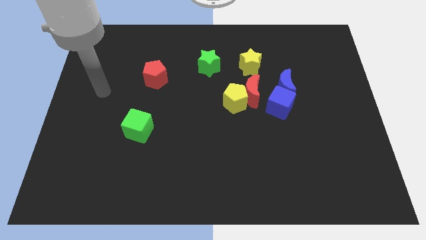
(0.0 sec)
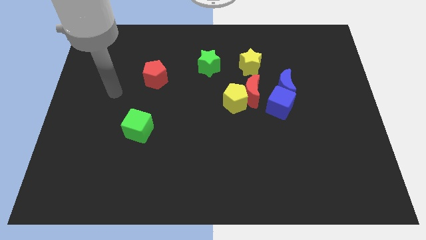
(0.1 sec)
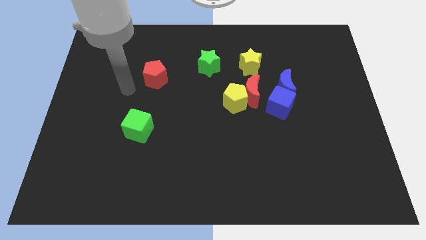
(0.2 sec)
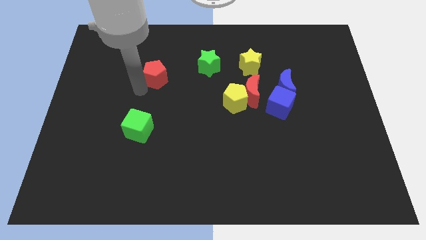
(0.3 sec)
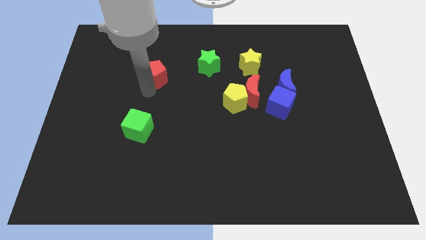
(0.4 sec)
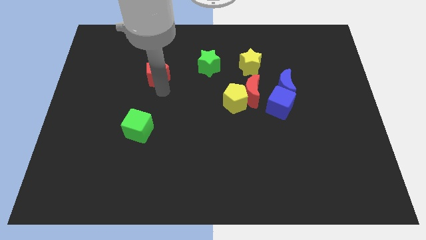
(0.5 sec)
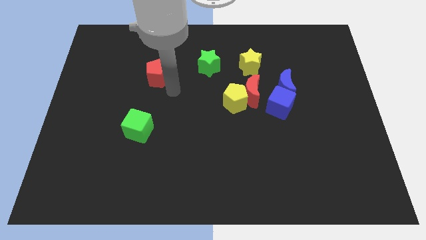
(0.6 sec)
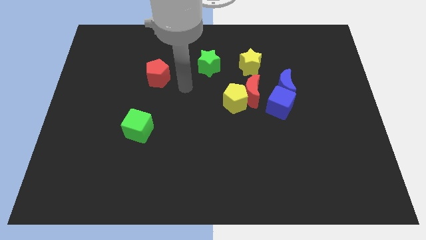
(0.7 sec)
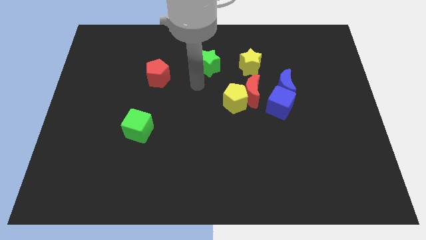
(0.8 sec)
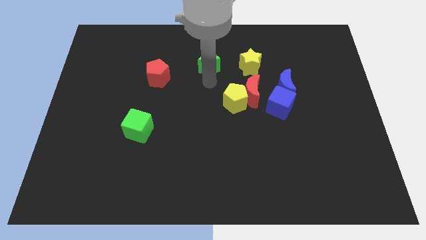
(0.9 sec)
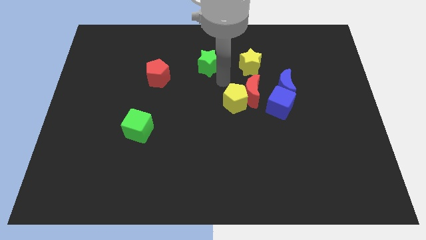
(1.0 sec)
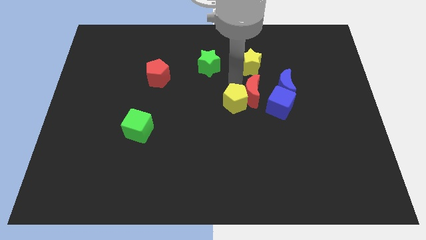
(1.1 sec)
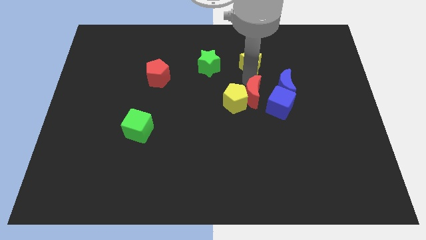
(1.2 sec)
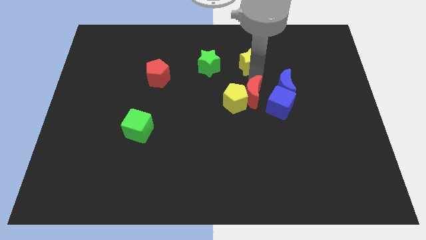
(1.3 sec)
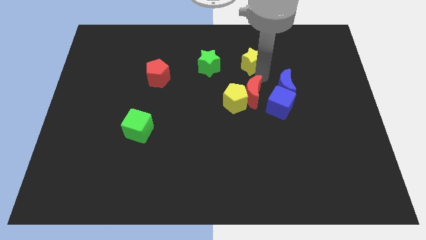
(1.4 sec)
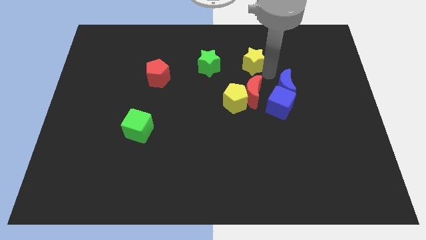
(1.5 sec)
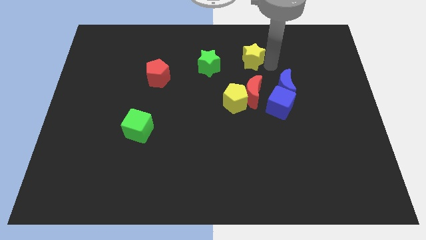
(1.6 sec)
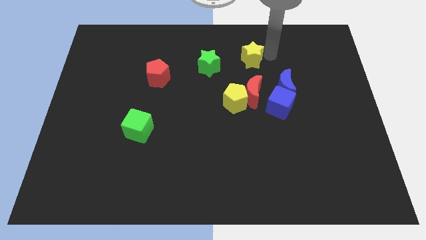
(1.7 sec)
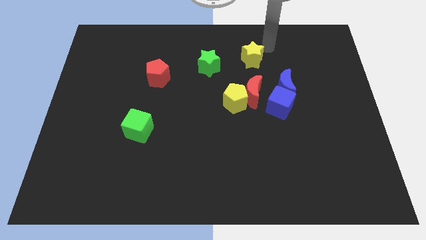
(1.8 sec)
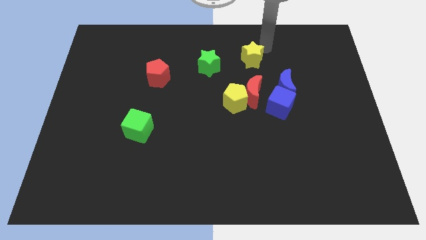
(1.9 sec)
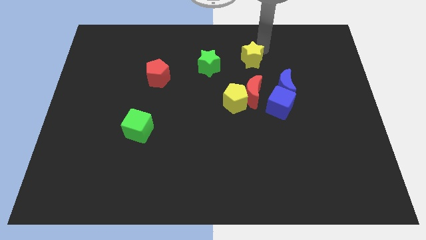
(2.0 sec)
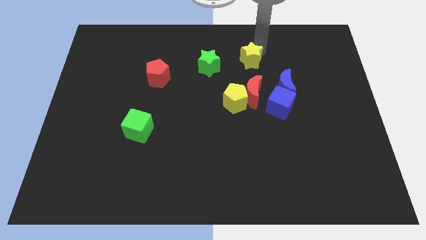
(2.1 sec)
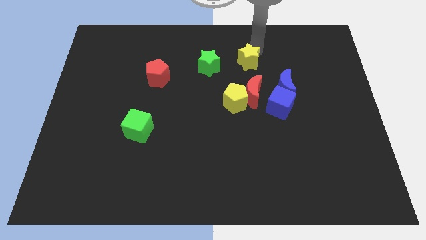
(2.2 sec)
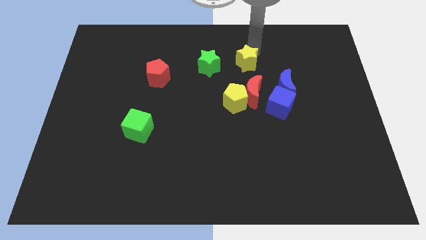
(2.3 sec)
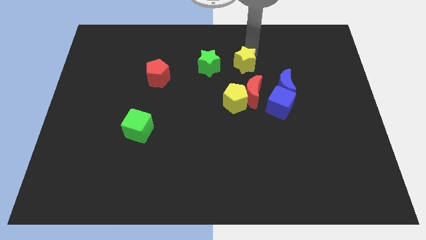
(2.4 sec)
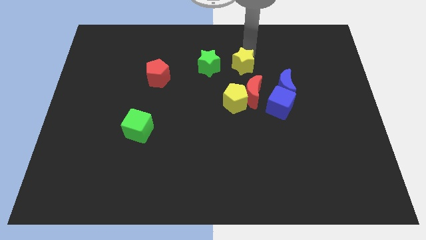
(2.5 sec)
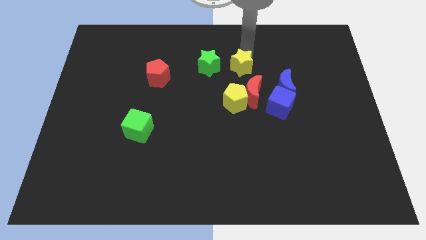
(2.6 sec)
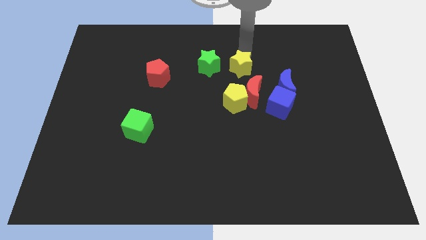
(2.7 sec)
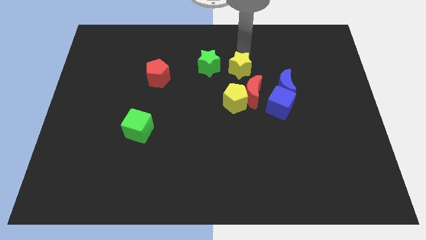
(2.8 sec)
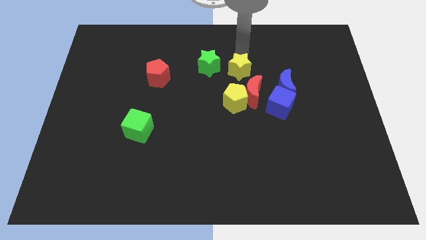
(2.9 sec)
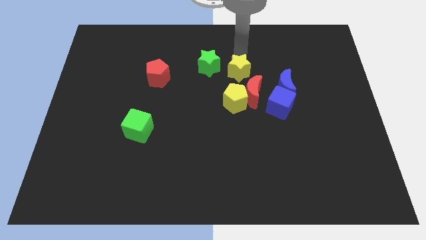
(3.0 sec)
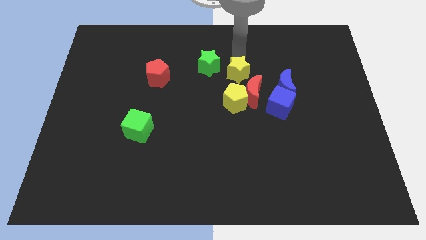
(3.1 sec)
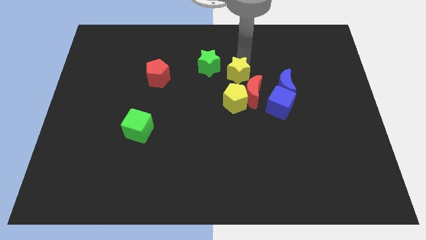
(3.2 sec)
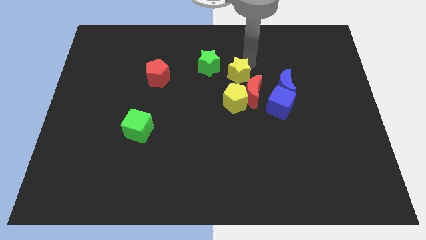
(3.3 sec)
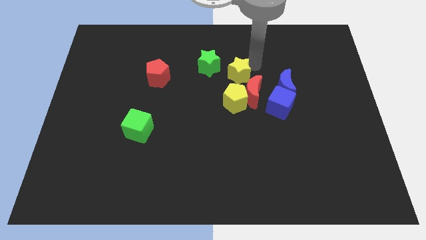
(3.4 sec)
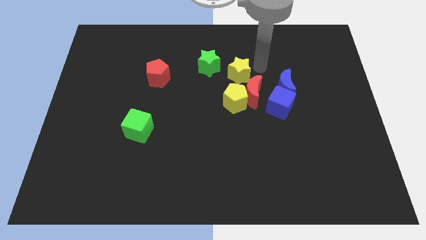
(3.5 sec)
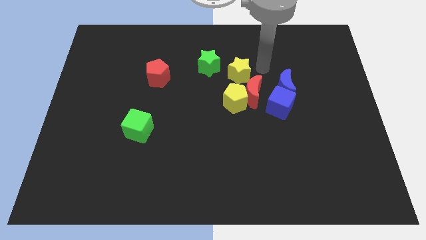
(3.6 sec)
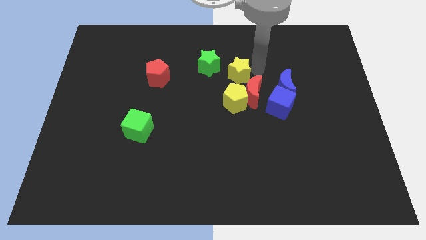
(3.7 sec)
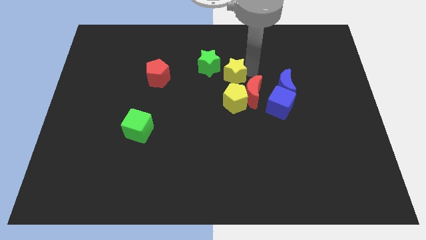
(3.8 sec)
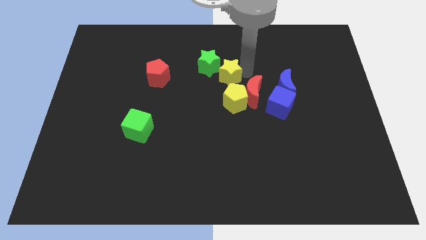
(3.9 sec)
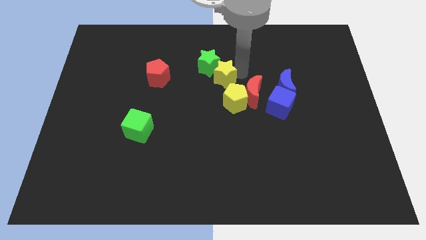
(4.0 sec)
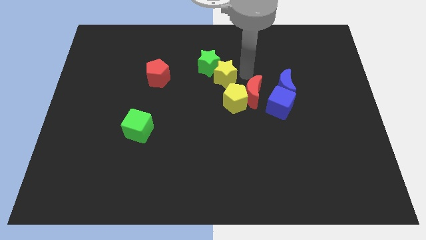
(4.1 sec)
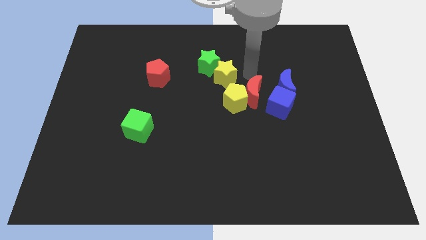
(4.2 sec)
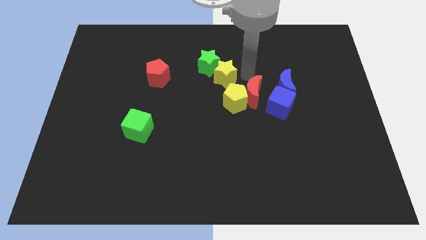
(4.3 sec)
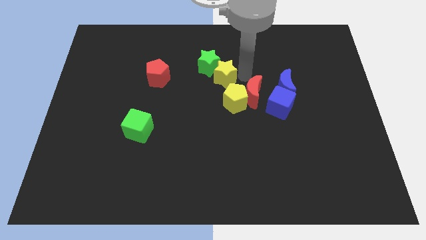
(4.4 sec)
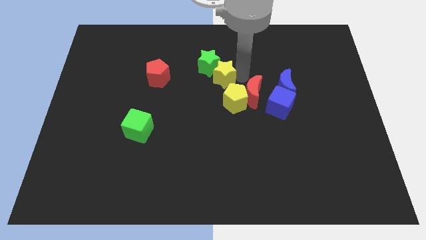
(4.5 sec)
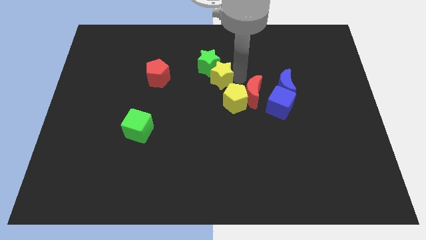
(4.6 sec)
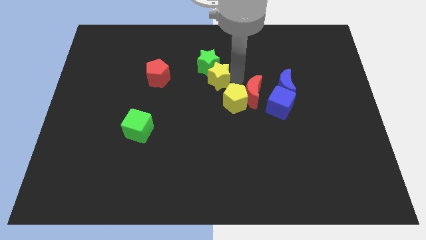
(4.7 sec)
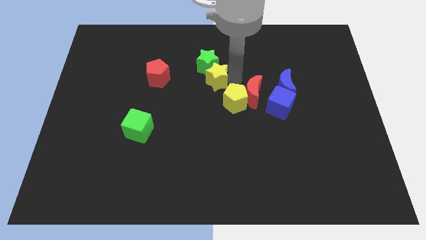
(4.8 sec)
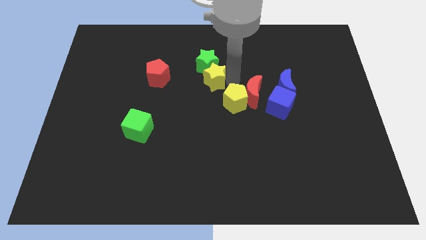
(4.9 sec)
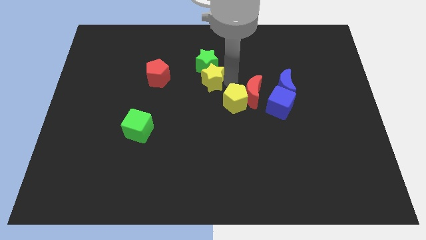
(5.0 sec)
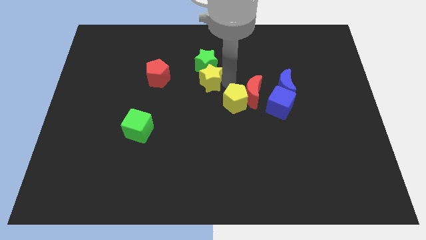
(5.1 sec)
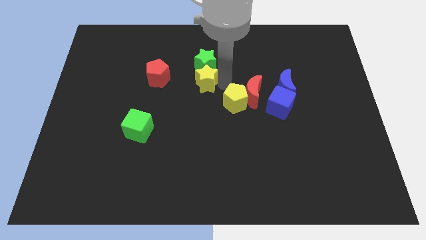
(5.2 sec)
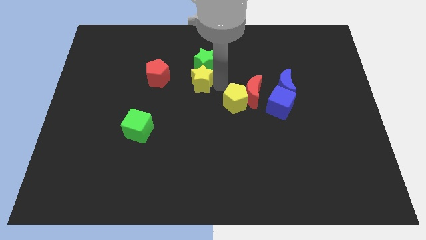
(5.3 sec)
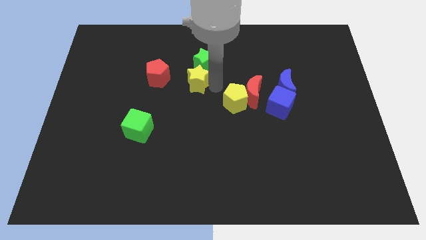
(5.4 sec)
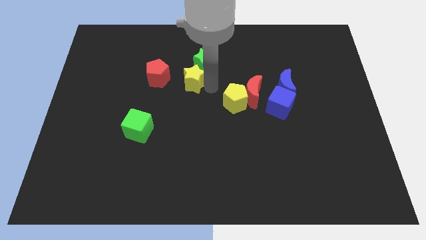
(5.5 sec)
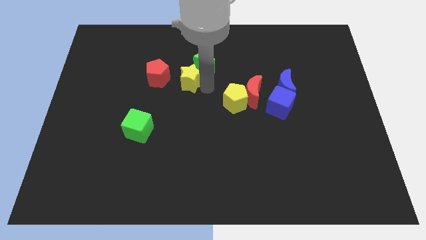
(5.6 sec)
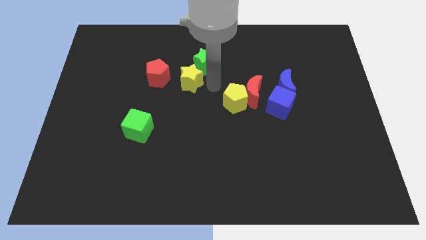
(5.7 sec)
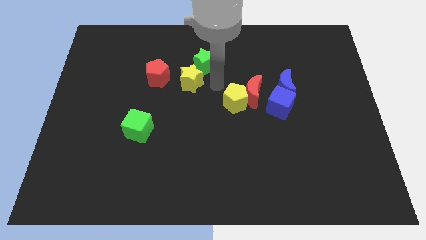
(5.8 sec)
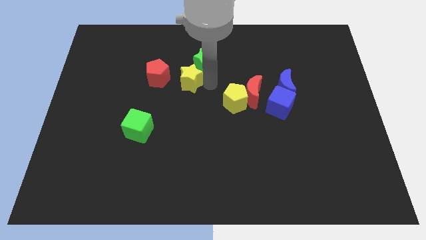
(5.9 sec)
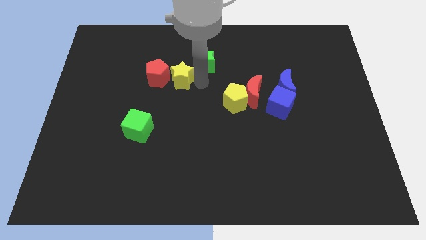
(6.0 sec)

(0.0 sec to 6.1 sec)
slide the yellow star next to the red pentagon
